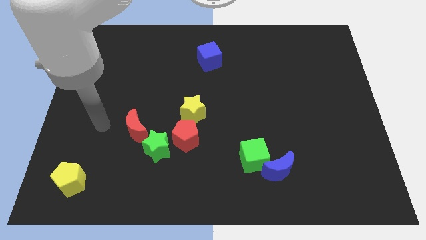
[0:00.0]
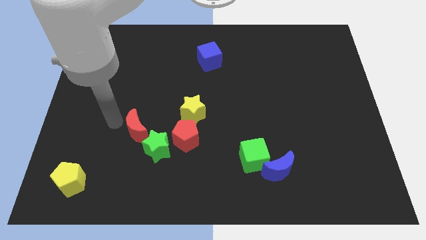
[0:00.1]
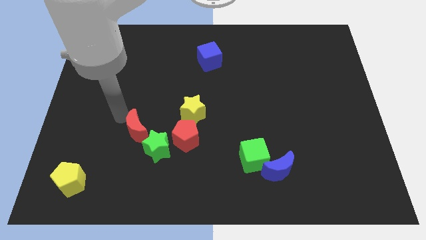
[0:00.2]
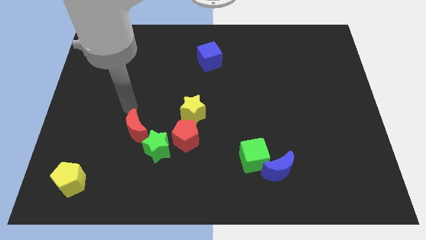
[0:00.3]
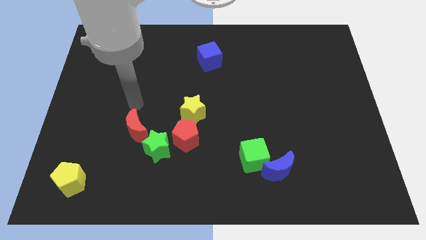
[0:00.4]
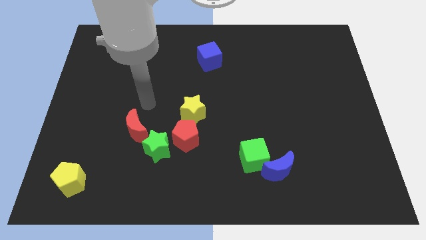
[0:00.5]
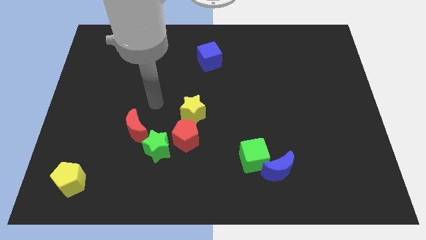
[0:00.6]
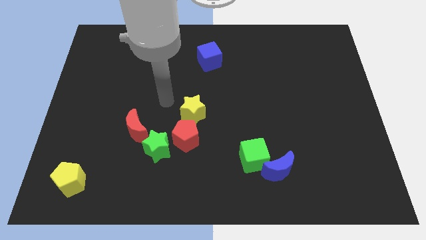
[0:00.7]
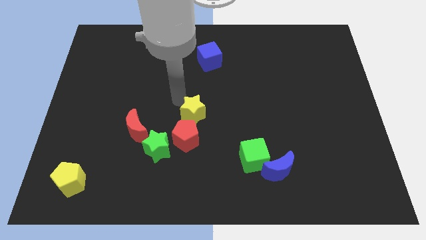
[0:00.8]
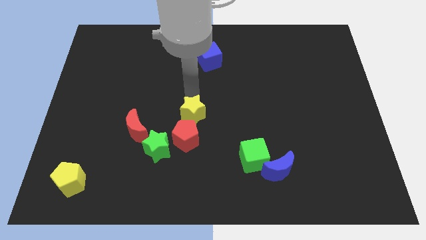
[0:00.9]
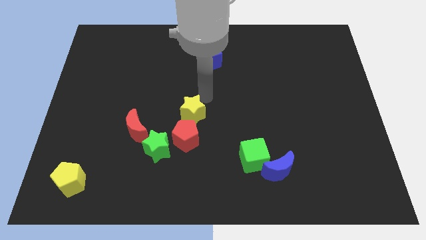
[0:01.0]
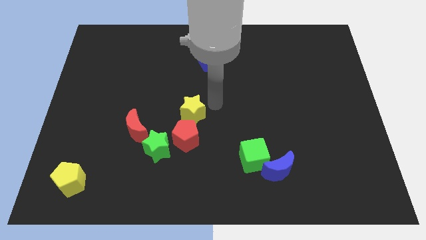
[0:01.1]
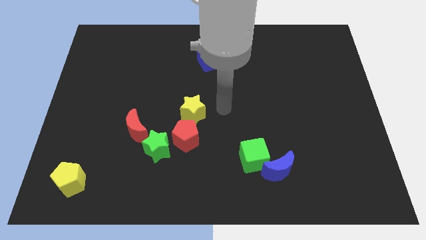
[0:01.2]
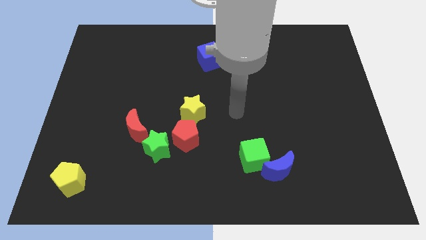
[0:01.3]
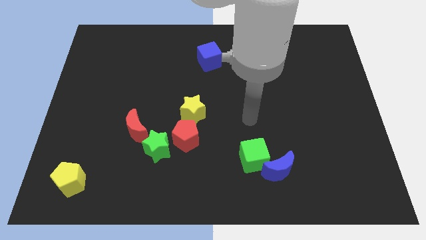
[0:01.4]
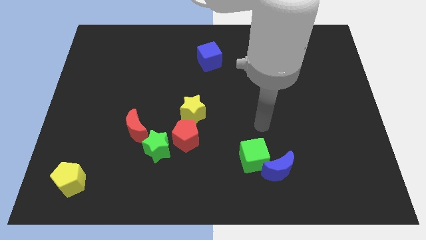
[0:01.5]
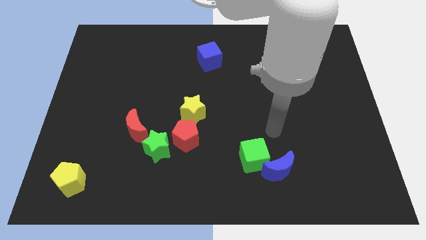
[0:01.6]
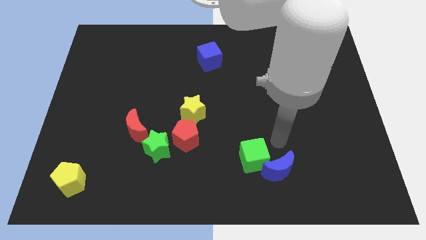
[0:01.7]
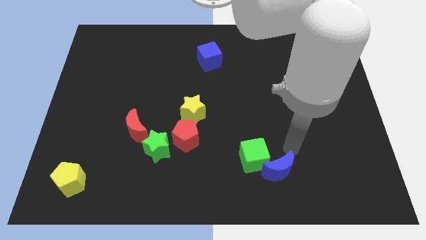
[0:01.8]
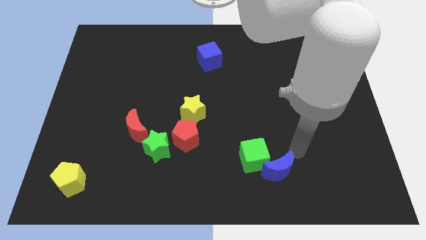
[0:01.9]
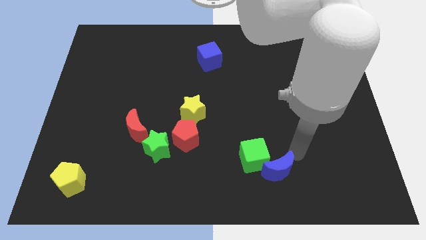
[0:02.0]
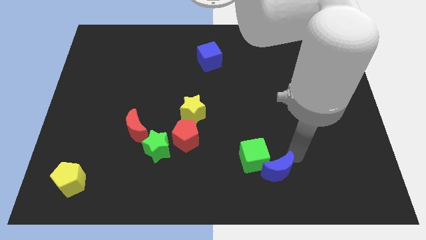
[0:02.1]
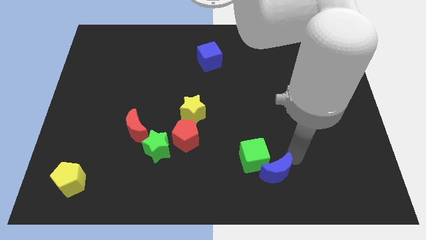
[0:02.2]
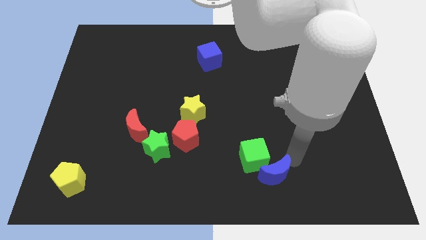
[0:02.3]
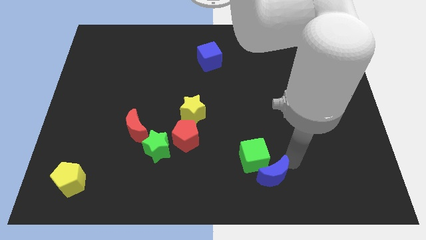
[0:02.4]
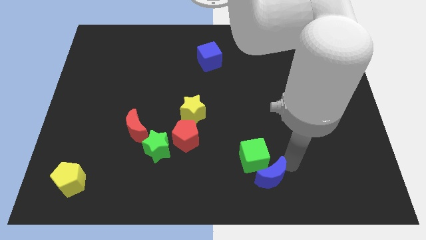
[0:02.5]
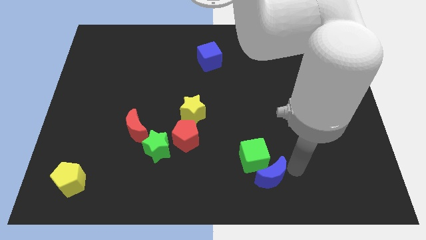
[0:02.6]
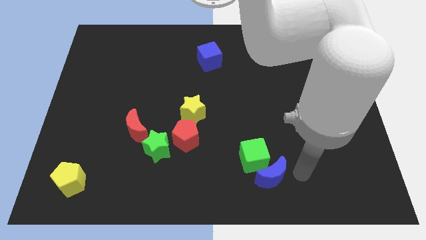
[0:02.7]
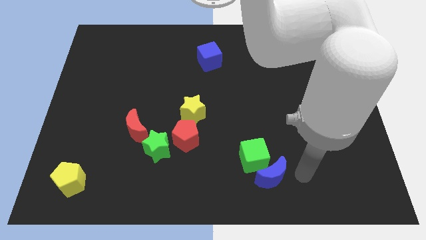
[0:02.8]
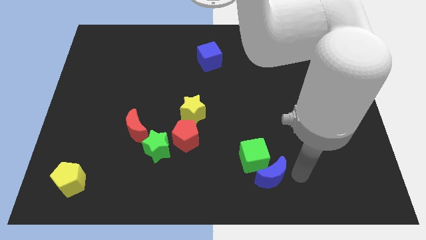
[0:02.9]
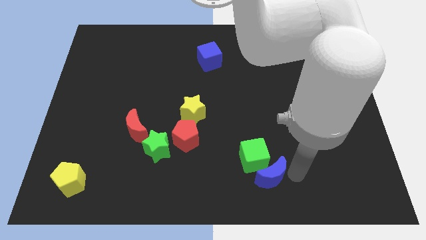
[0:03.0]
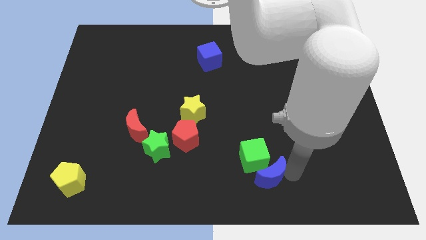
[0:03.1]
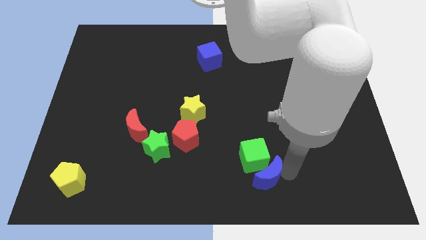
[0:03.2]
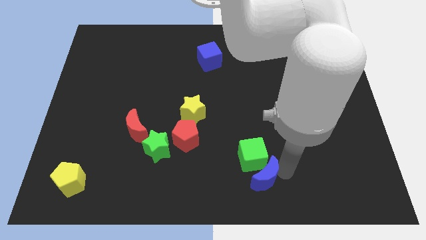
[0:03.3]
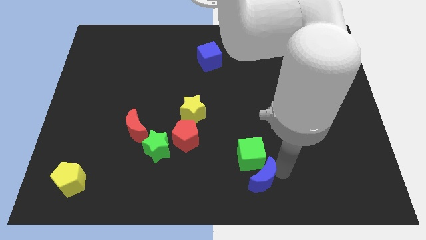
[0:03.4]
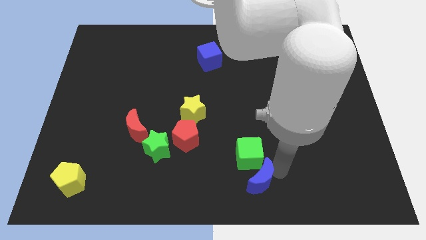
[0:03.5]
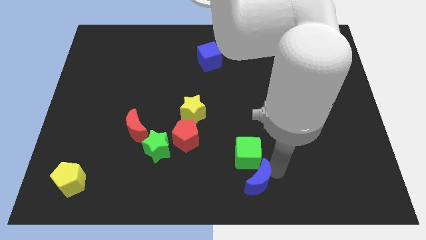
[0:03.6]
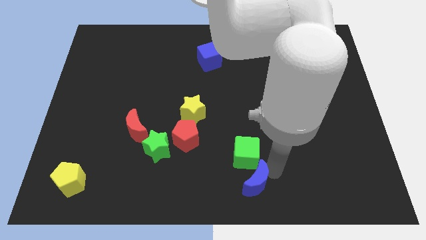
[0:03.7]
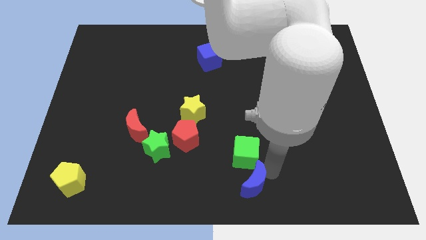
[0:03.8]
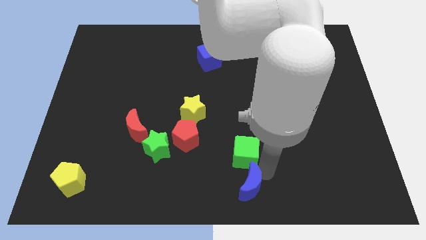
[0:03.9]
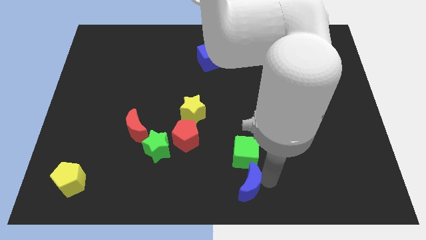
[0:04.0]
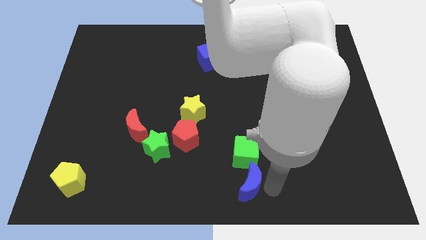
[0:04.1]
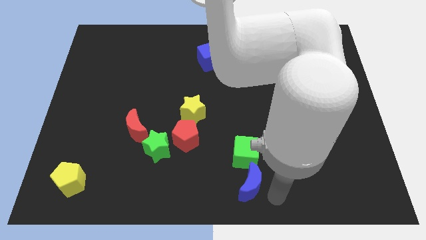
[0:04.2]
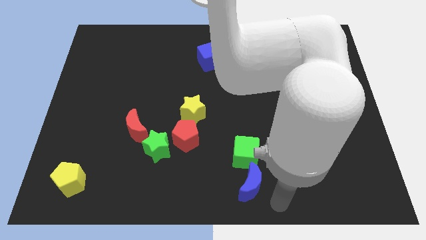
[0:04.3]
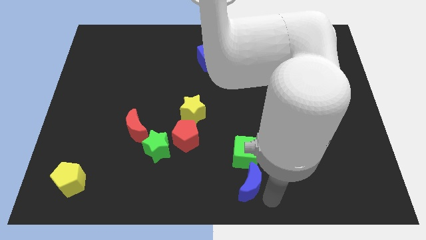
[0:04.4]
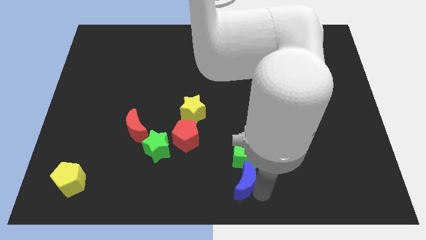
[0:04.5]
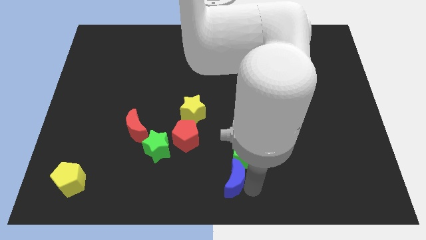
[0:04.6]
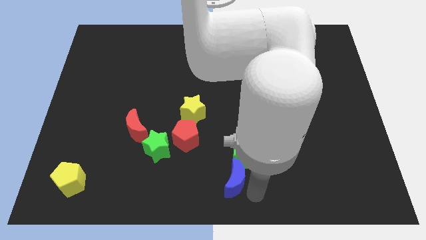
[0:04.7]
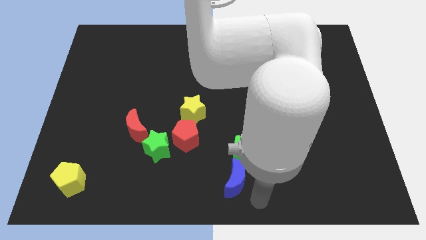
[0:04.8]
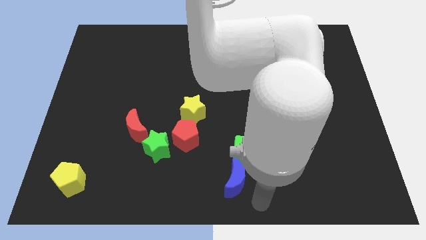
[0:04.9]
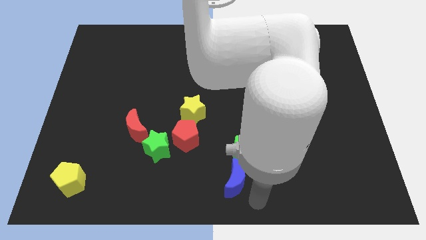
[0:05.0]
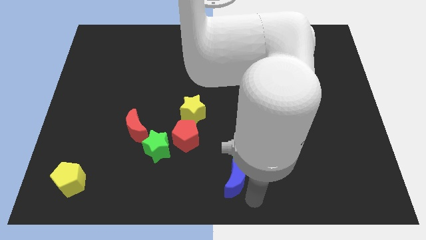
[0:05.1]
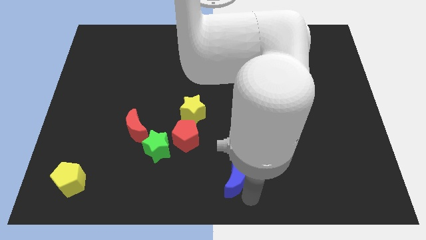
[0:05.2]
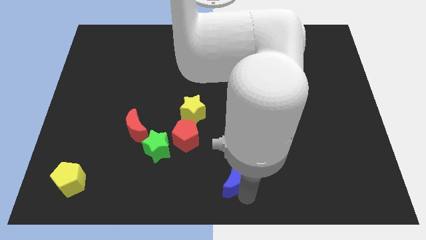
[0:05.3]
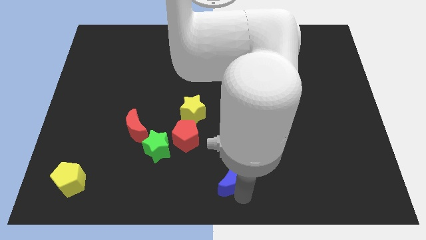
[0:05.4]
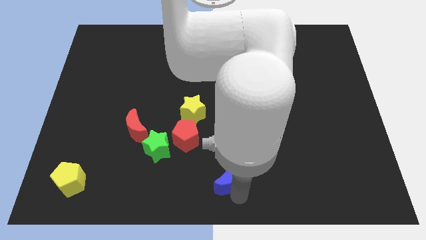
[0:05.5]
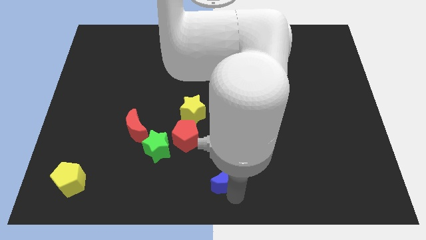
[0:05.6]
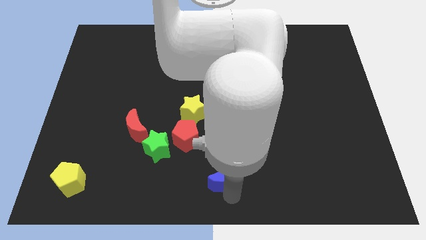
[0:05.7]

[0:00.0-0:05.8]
put the blue moon to the bottom right of the red pentagon
